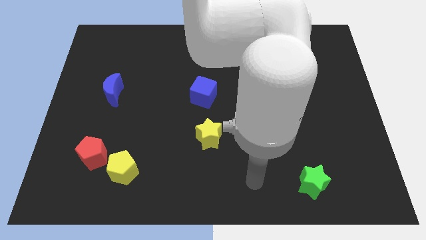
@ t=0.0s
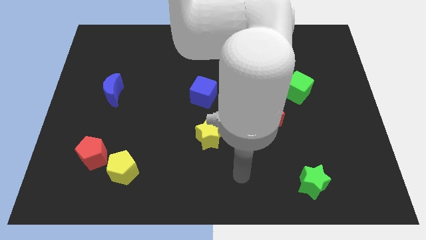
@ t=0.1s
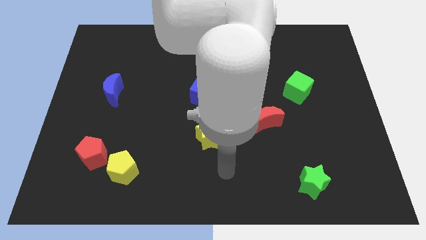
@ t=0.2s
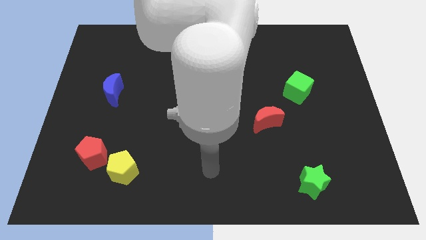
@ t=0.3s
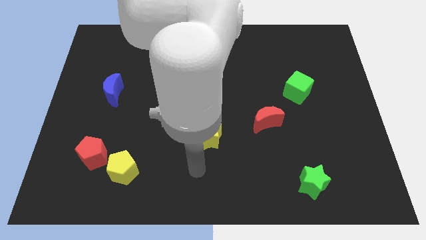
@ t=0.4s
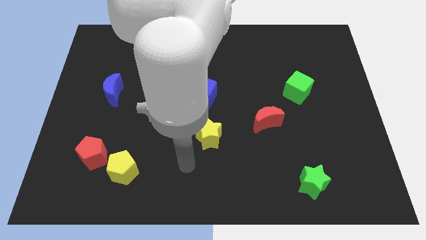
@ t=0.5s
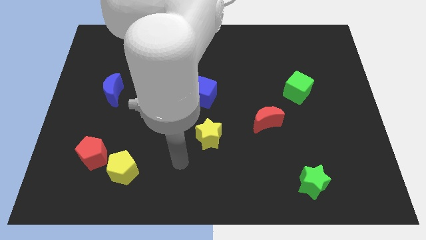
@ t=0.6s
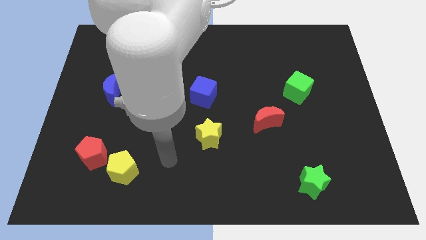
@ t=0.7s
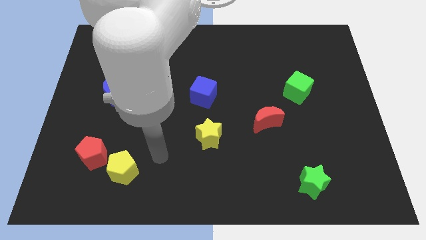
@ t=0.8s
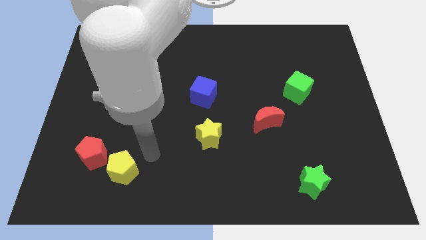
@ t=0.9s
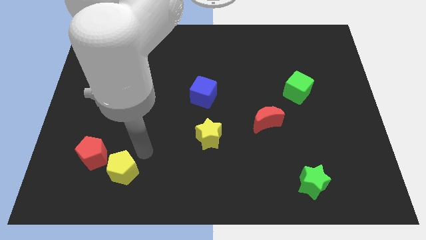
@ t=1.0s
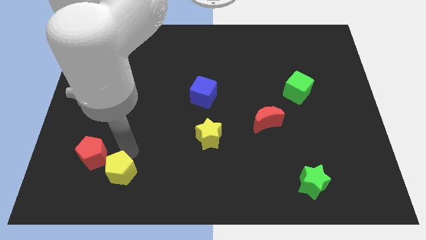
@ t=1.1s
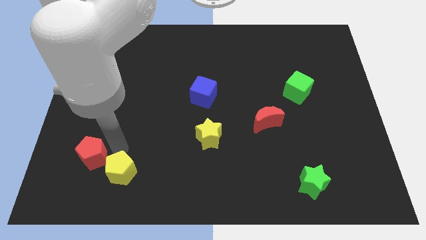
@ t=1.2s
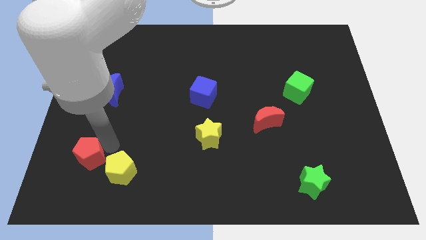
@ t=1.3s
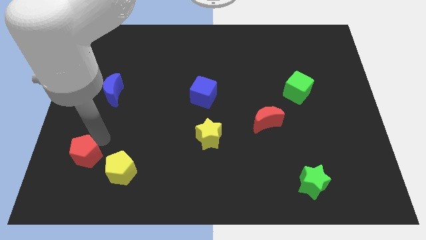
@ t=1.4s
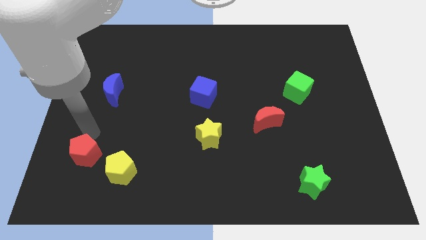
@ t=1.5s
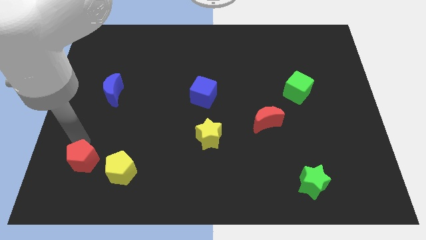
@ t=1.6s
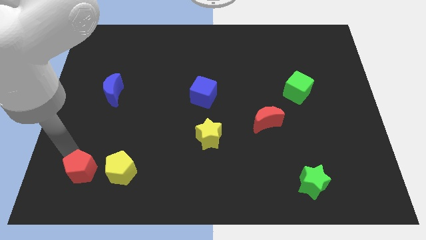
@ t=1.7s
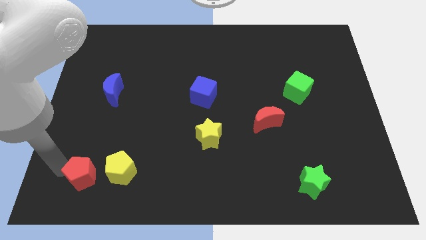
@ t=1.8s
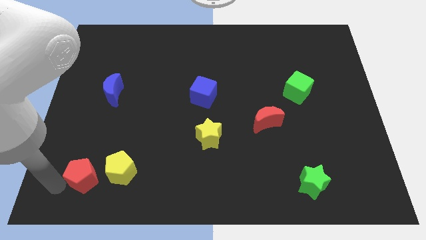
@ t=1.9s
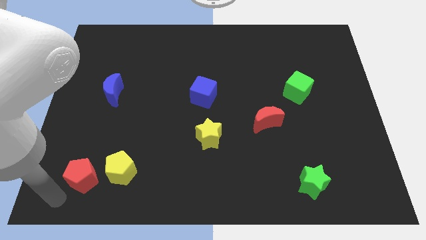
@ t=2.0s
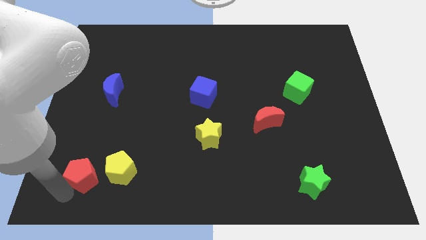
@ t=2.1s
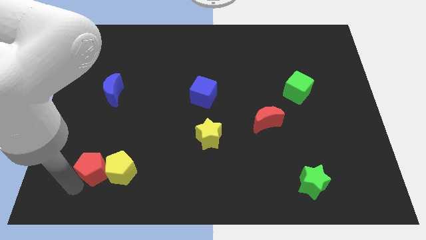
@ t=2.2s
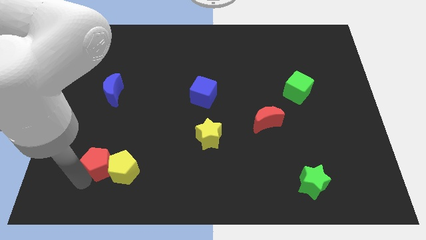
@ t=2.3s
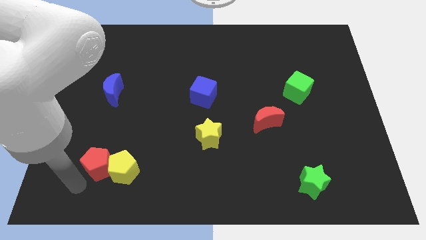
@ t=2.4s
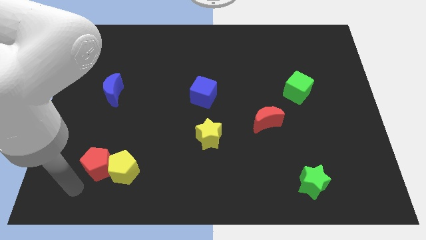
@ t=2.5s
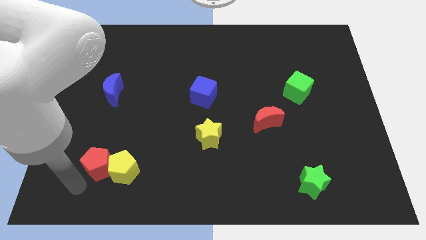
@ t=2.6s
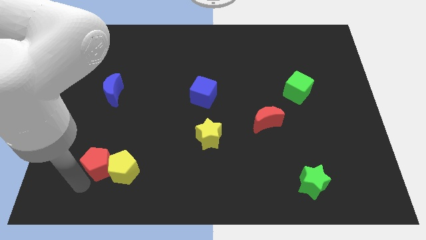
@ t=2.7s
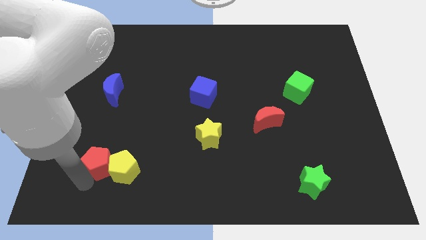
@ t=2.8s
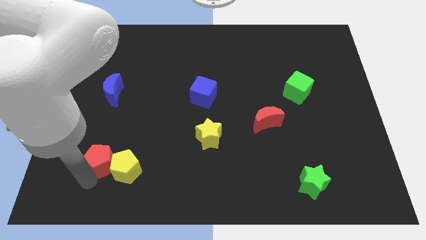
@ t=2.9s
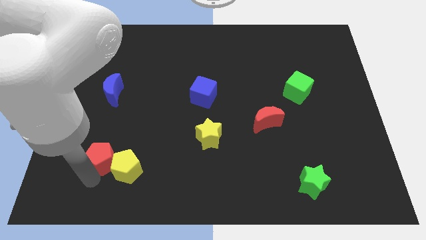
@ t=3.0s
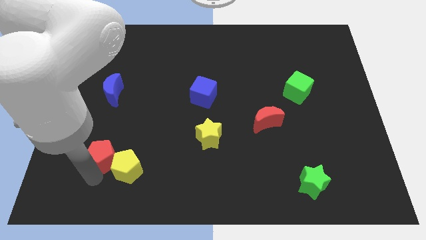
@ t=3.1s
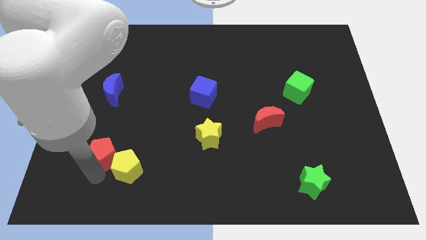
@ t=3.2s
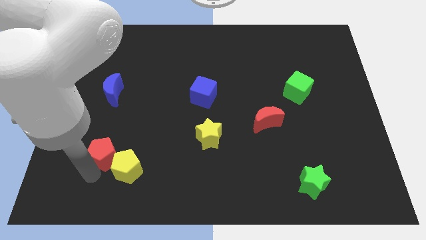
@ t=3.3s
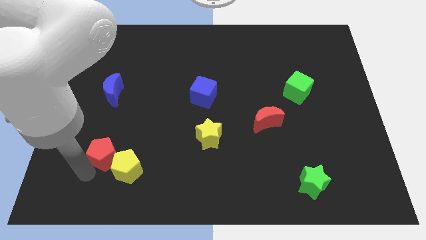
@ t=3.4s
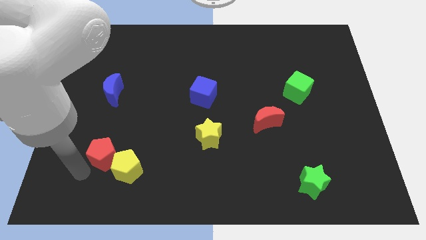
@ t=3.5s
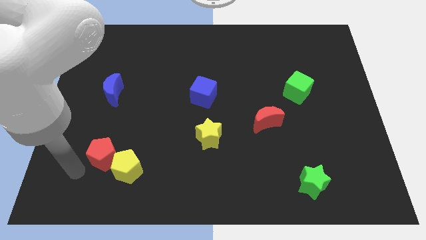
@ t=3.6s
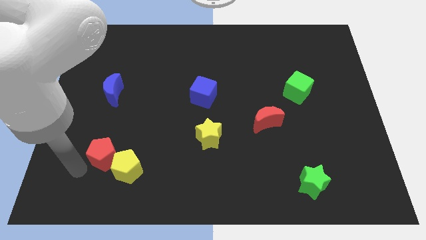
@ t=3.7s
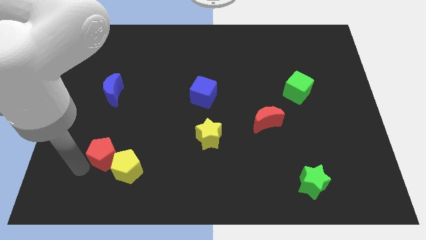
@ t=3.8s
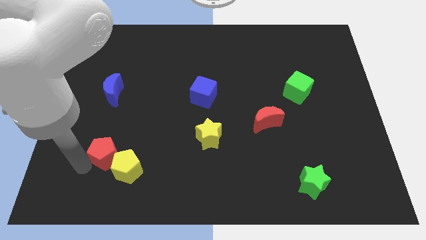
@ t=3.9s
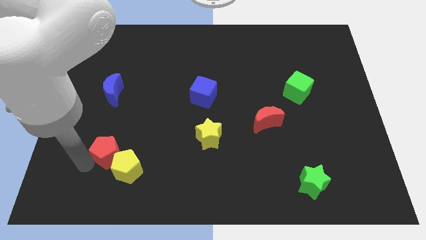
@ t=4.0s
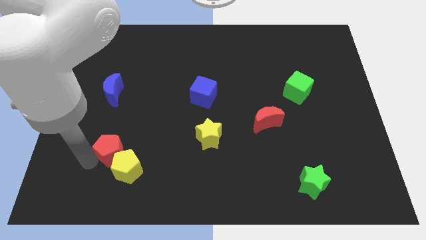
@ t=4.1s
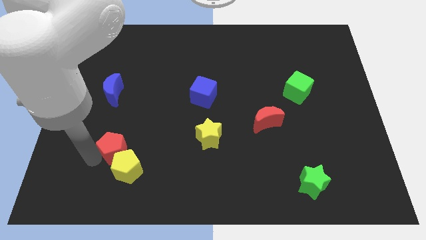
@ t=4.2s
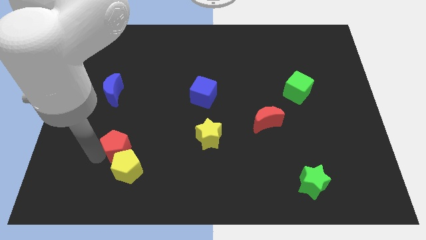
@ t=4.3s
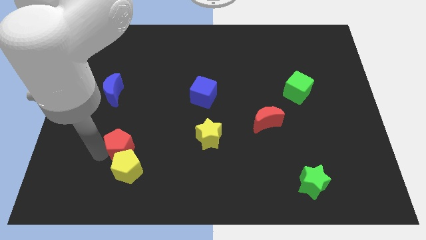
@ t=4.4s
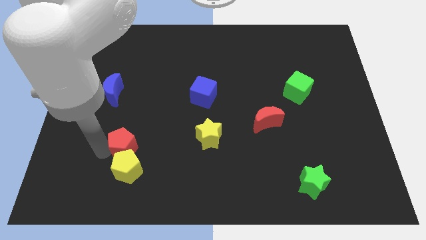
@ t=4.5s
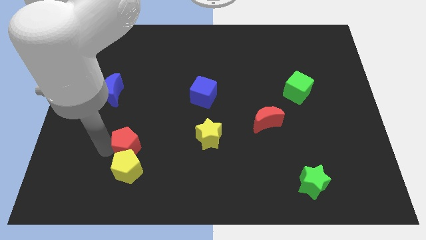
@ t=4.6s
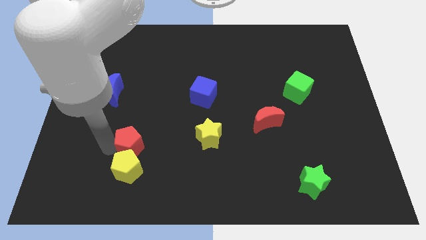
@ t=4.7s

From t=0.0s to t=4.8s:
move the red pentagon slightly to the right

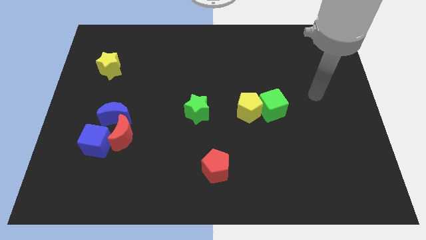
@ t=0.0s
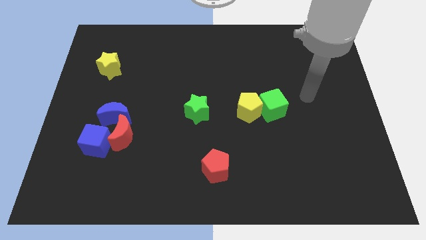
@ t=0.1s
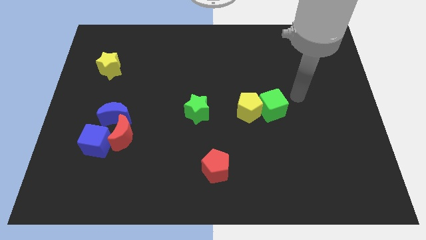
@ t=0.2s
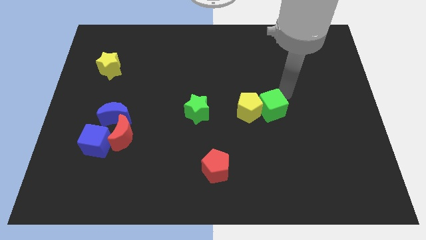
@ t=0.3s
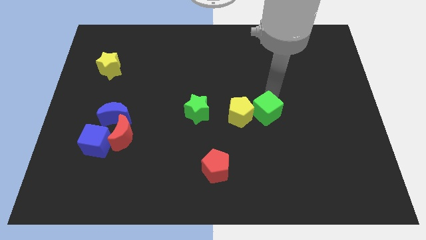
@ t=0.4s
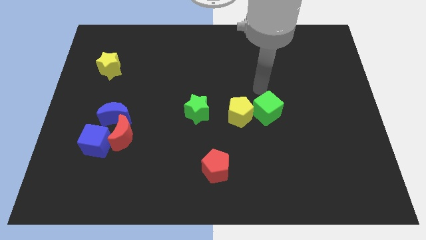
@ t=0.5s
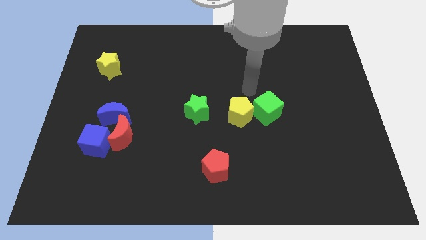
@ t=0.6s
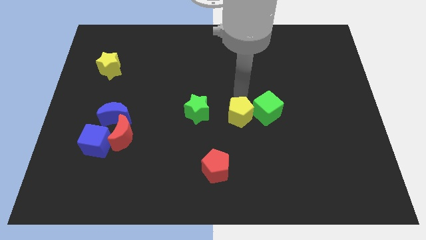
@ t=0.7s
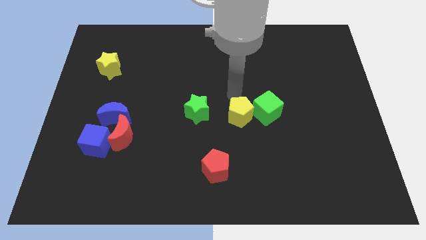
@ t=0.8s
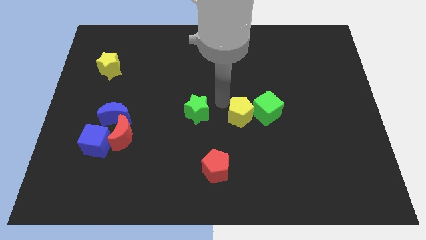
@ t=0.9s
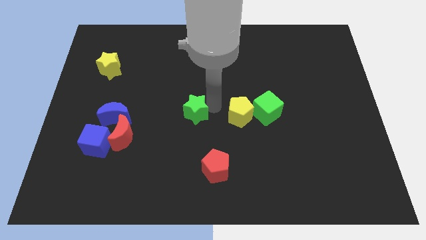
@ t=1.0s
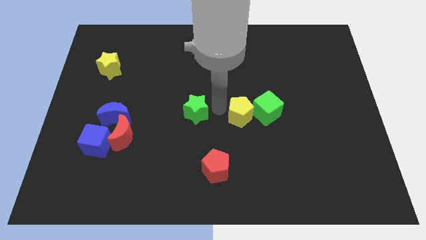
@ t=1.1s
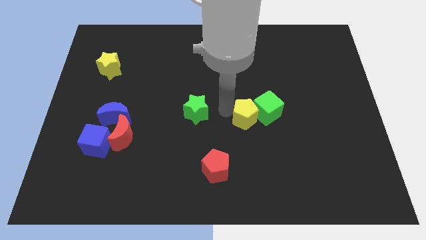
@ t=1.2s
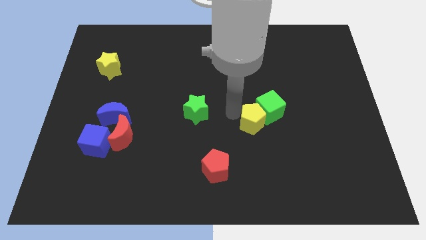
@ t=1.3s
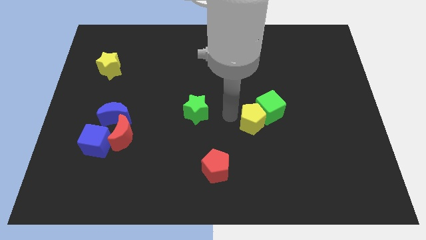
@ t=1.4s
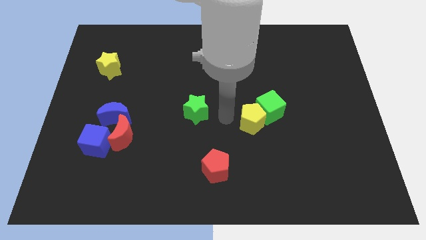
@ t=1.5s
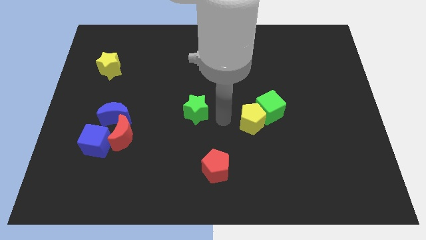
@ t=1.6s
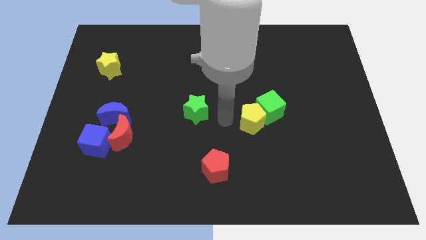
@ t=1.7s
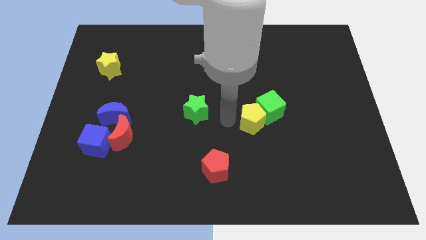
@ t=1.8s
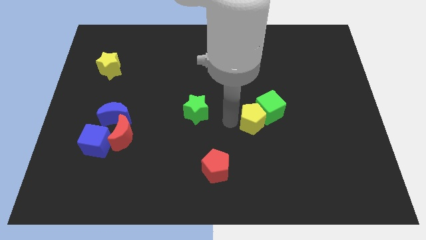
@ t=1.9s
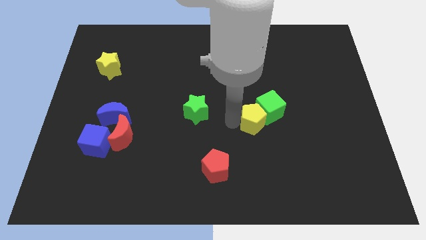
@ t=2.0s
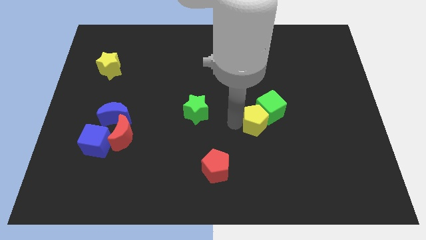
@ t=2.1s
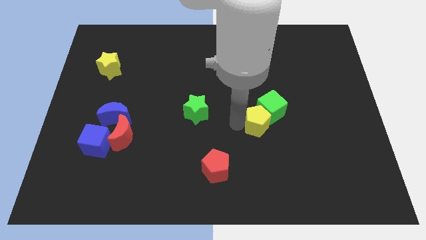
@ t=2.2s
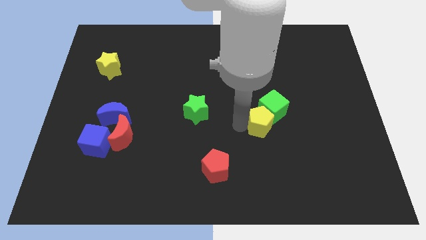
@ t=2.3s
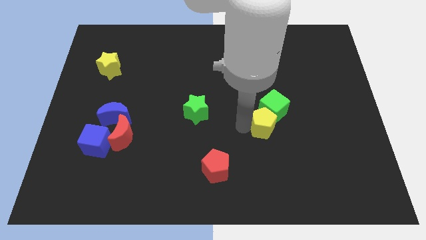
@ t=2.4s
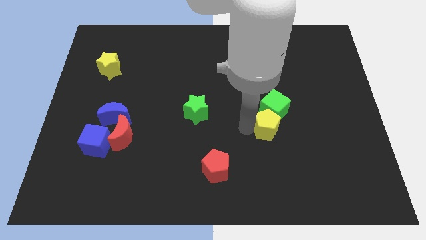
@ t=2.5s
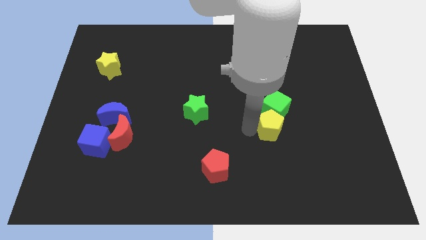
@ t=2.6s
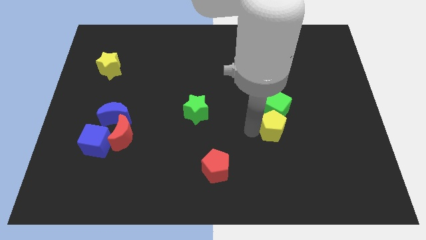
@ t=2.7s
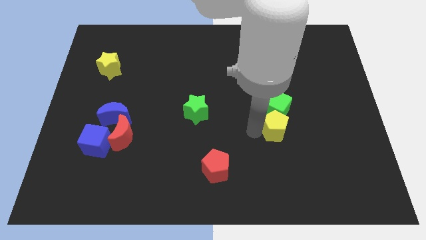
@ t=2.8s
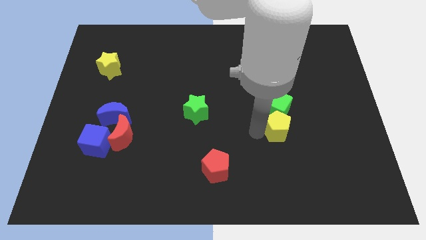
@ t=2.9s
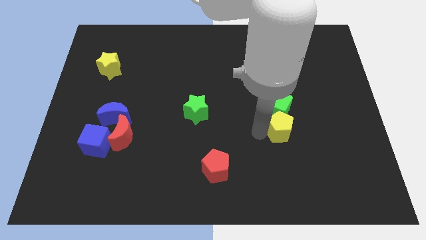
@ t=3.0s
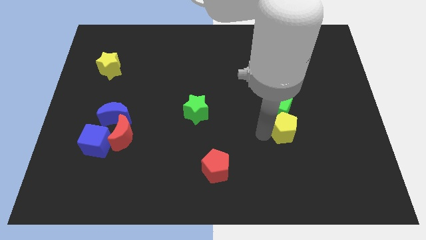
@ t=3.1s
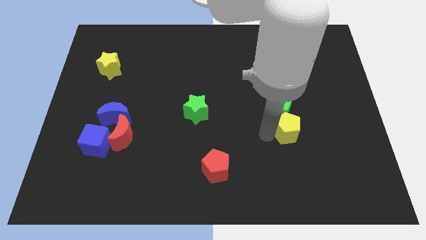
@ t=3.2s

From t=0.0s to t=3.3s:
slightly slide the yellow pentagon right
